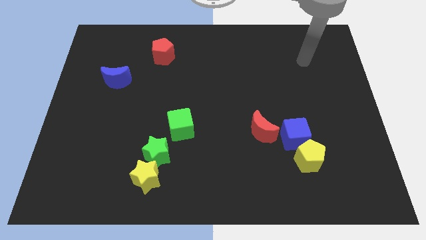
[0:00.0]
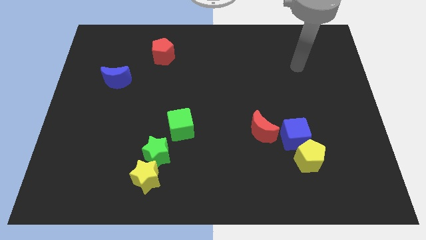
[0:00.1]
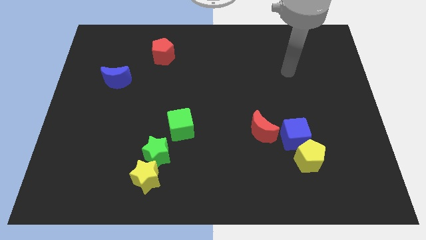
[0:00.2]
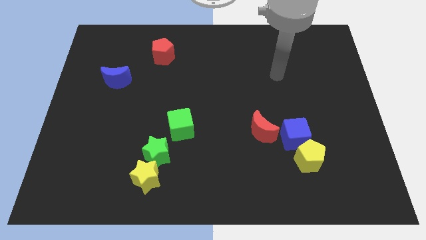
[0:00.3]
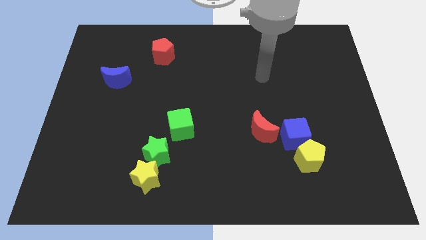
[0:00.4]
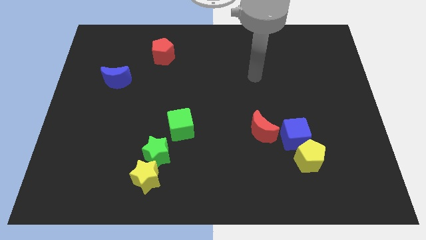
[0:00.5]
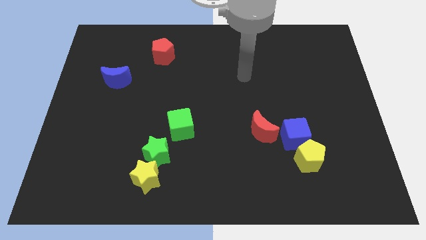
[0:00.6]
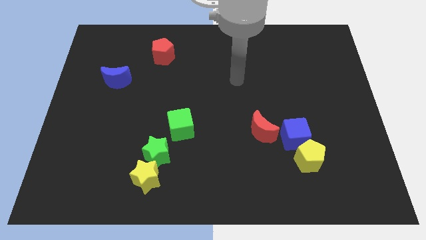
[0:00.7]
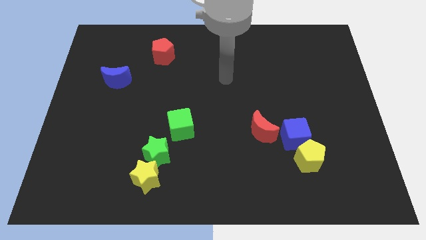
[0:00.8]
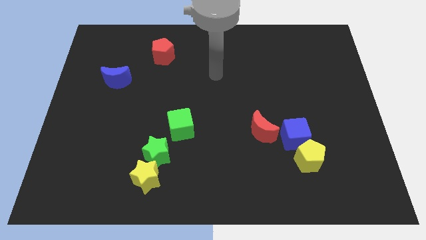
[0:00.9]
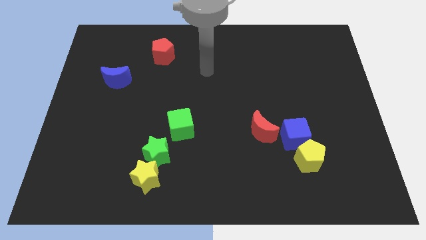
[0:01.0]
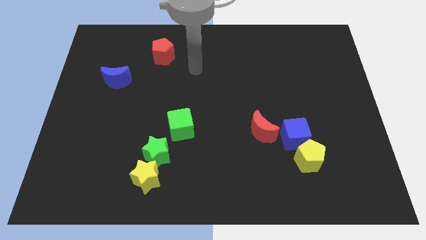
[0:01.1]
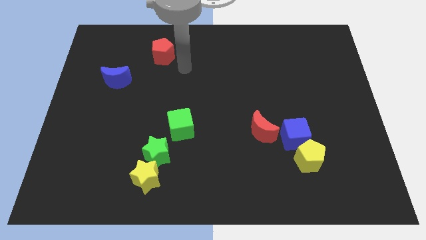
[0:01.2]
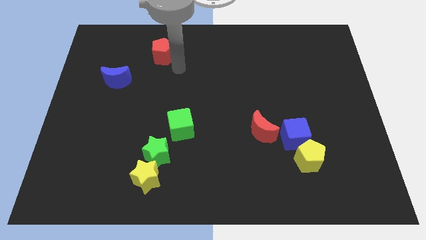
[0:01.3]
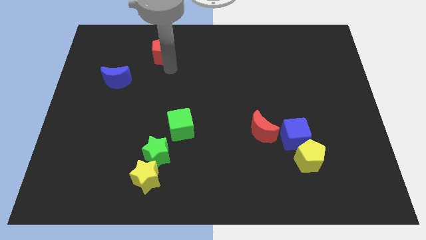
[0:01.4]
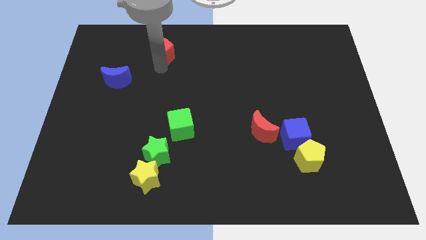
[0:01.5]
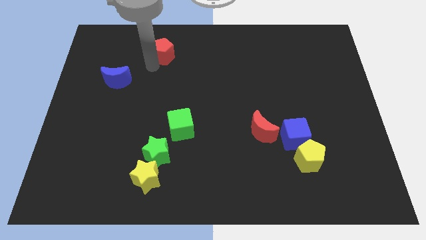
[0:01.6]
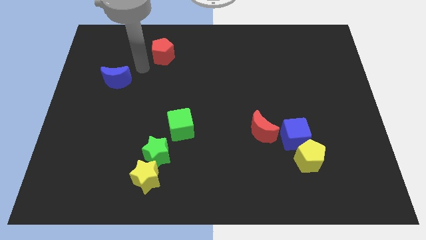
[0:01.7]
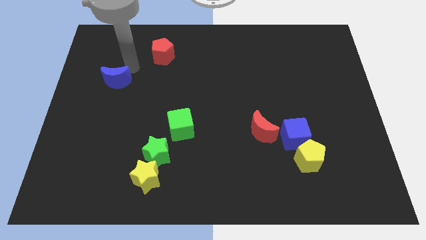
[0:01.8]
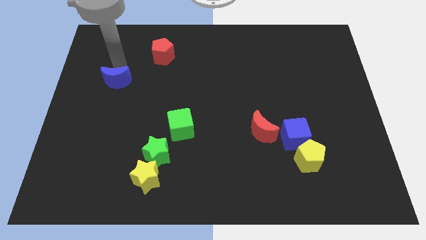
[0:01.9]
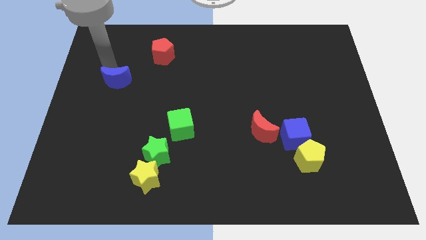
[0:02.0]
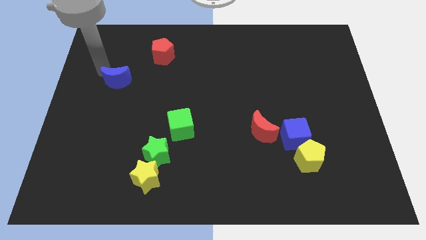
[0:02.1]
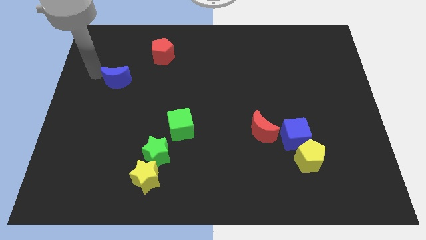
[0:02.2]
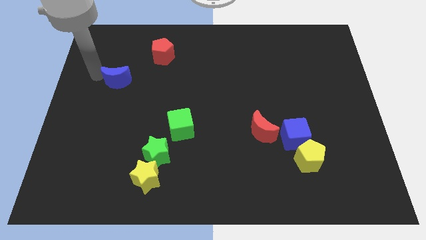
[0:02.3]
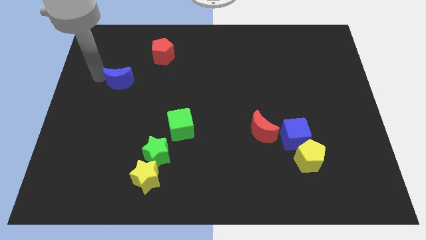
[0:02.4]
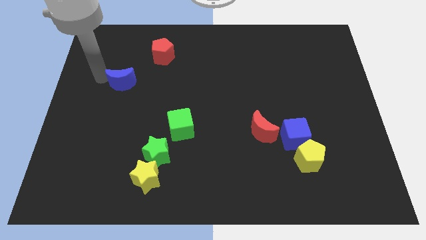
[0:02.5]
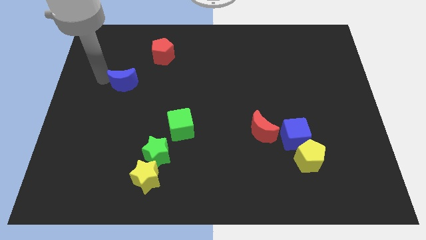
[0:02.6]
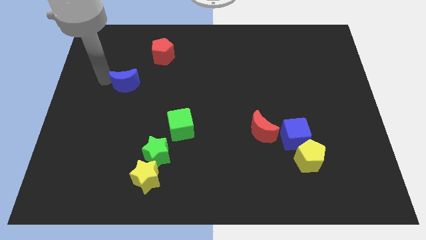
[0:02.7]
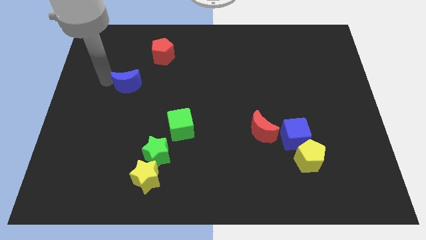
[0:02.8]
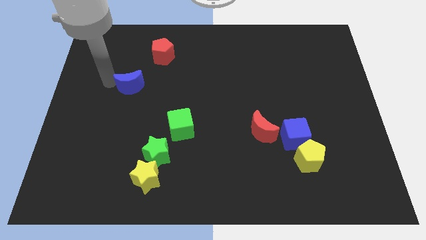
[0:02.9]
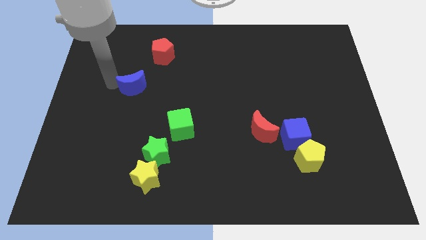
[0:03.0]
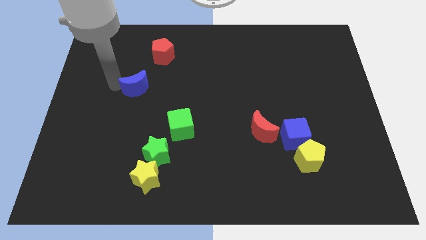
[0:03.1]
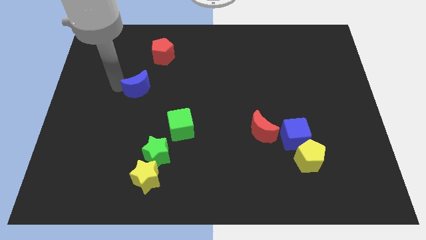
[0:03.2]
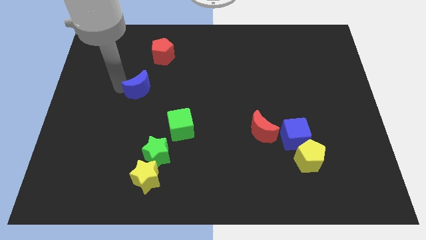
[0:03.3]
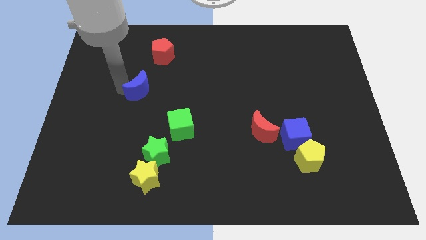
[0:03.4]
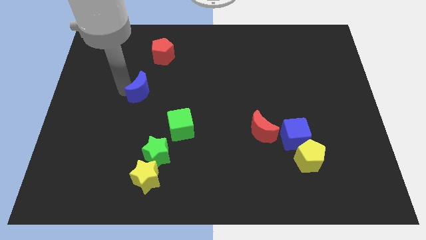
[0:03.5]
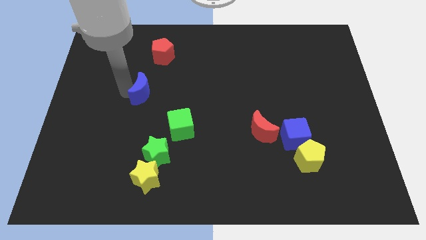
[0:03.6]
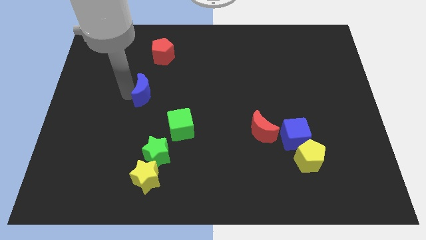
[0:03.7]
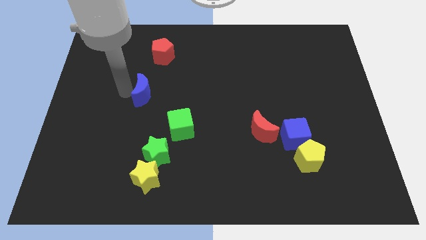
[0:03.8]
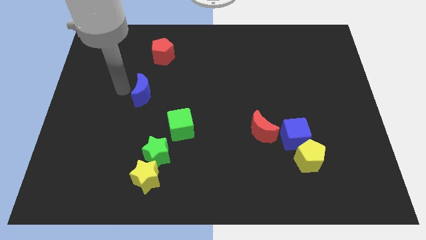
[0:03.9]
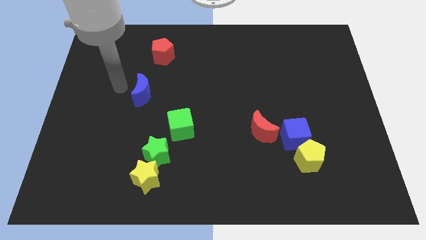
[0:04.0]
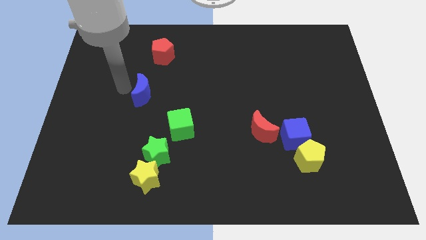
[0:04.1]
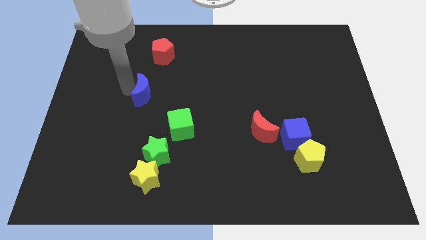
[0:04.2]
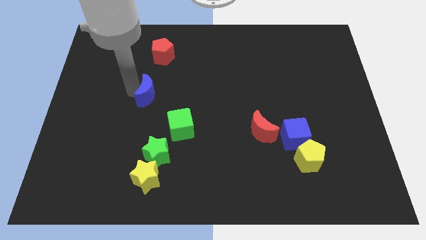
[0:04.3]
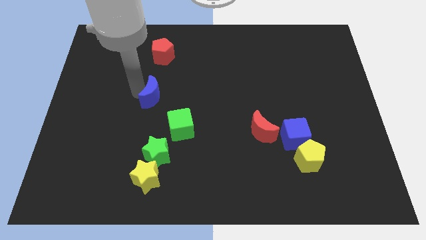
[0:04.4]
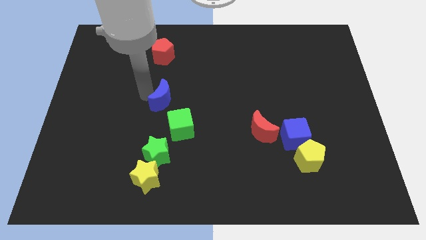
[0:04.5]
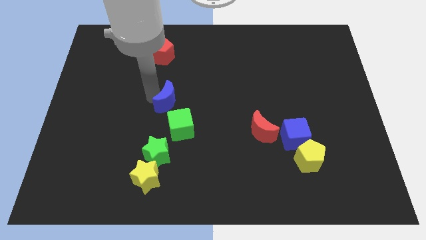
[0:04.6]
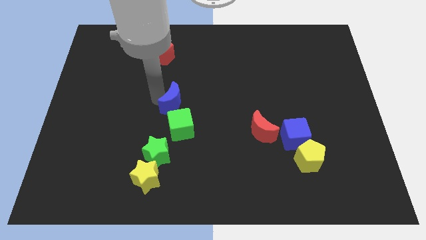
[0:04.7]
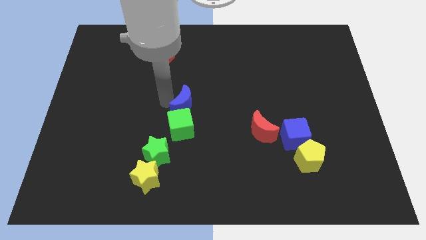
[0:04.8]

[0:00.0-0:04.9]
put the blue moon to the top right of the green cube

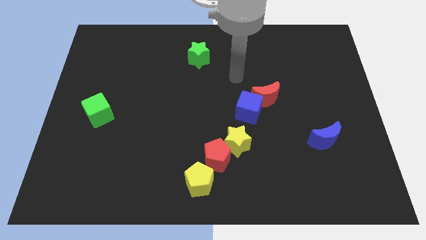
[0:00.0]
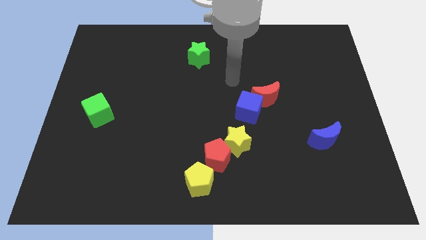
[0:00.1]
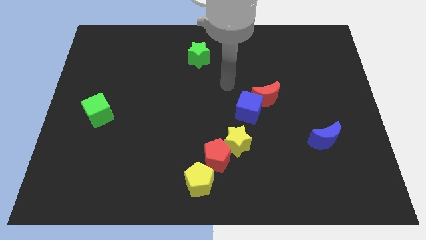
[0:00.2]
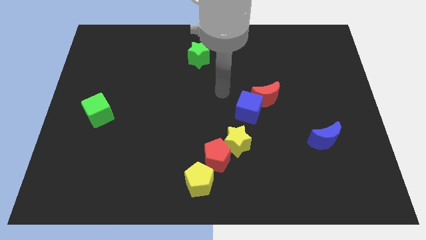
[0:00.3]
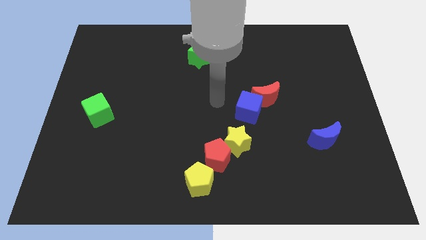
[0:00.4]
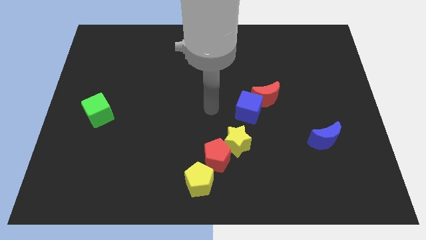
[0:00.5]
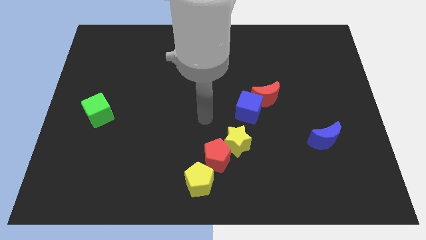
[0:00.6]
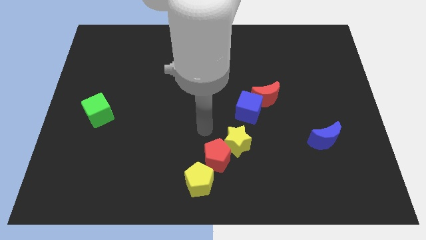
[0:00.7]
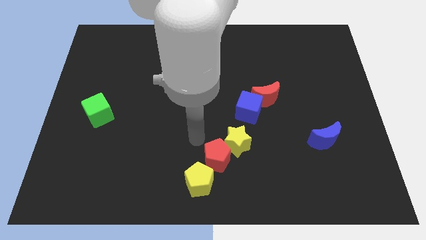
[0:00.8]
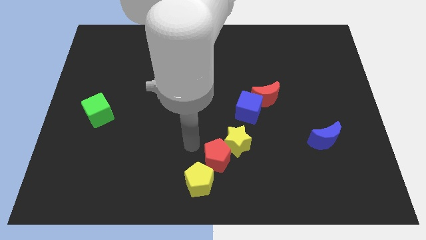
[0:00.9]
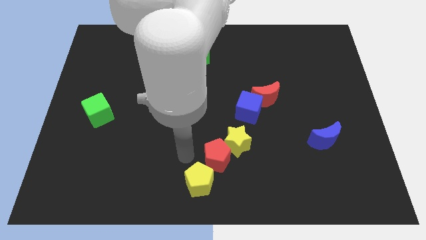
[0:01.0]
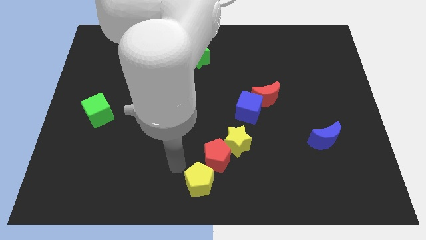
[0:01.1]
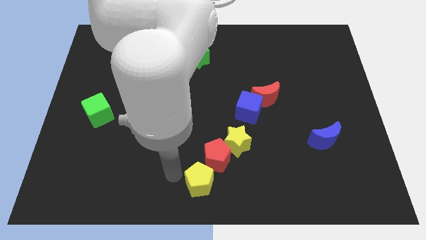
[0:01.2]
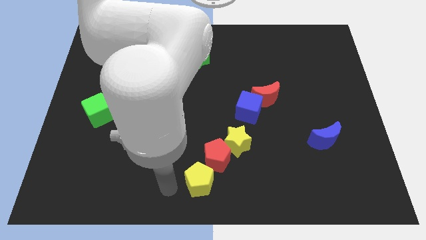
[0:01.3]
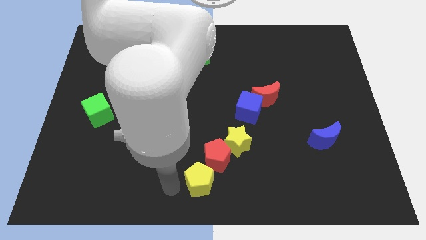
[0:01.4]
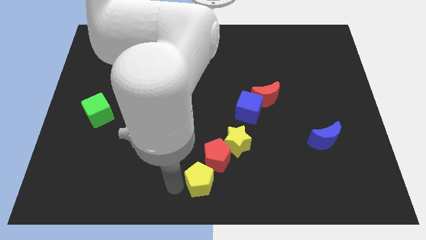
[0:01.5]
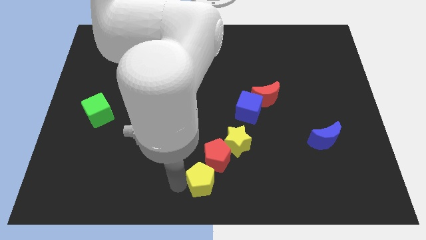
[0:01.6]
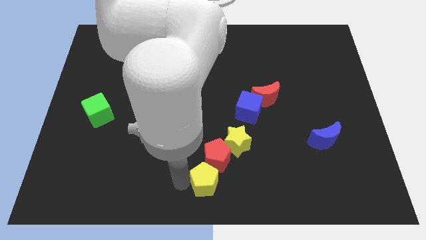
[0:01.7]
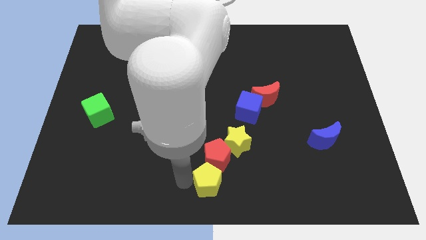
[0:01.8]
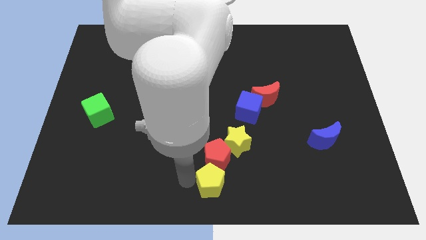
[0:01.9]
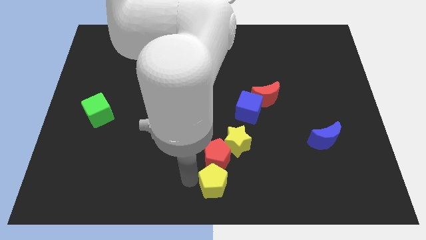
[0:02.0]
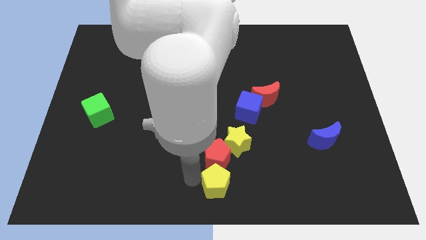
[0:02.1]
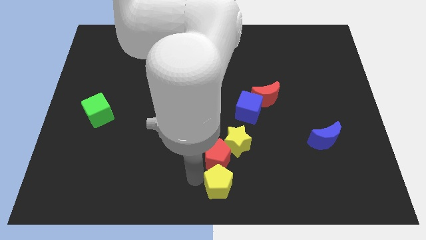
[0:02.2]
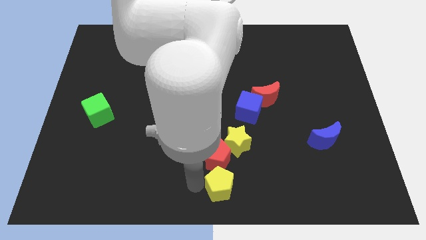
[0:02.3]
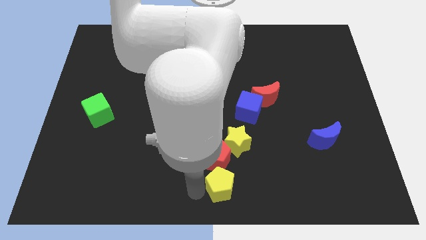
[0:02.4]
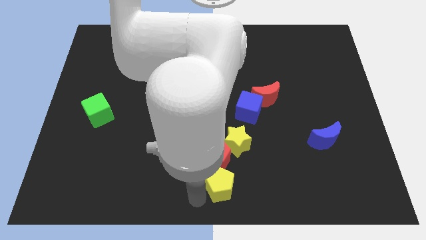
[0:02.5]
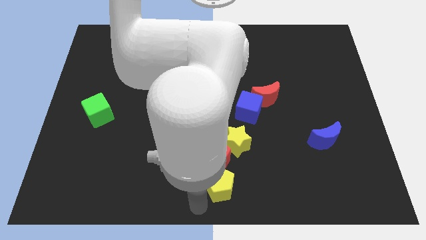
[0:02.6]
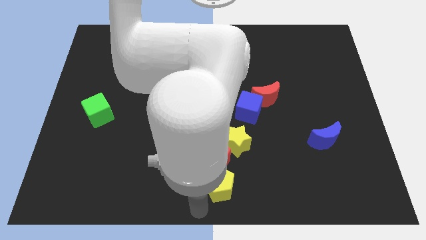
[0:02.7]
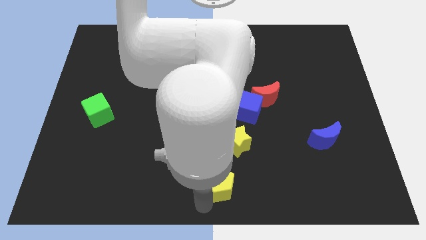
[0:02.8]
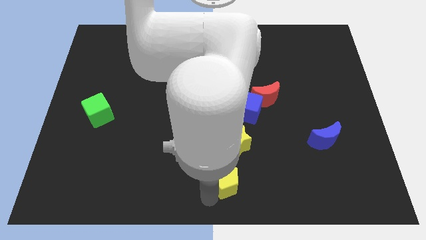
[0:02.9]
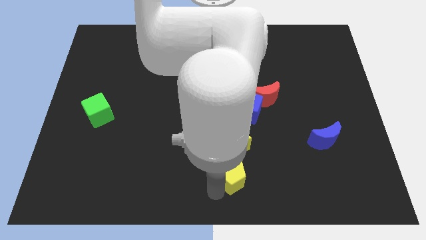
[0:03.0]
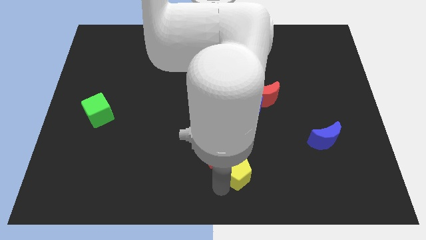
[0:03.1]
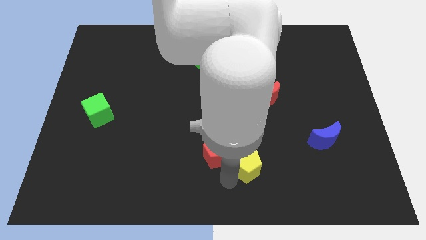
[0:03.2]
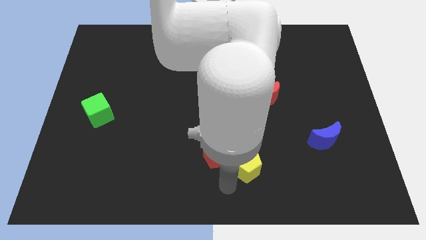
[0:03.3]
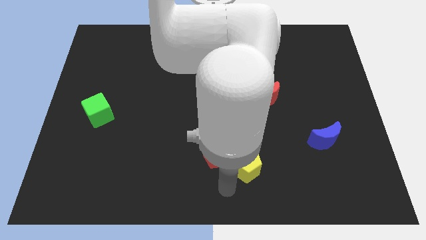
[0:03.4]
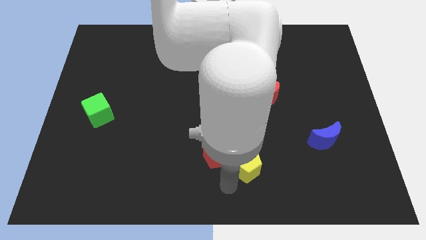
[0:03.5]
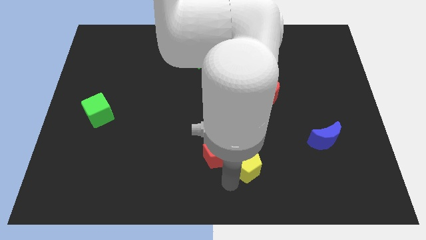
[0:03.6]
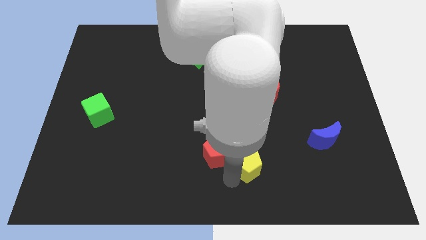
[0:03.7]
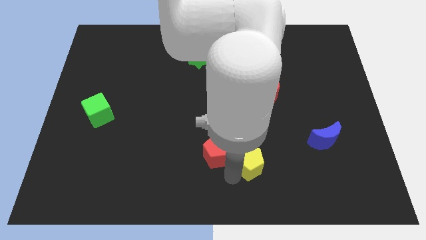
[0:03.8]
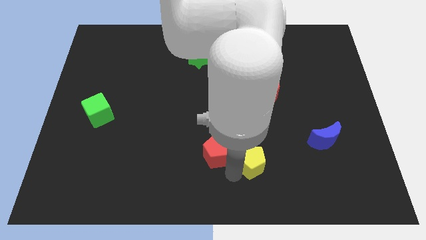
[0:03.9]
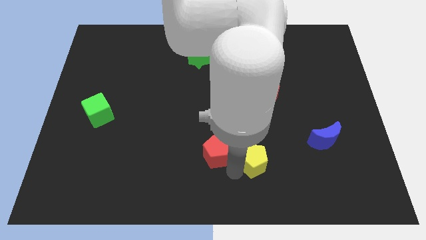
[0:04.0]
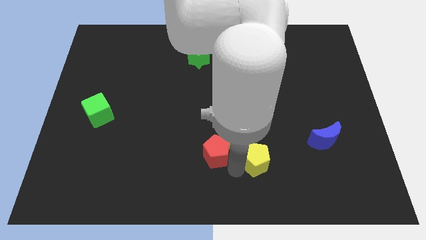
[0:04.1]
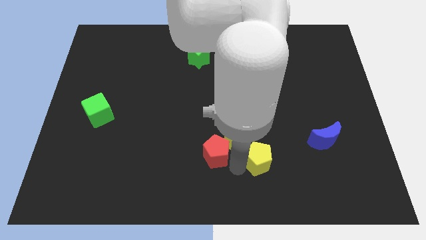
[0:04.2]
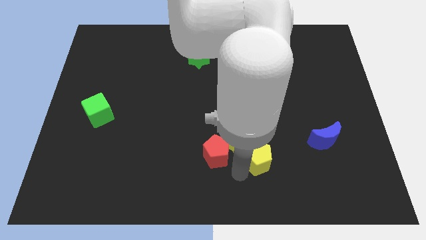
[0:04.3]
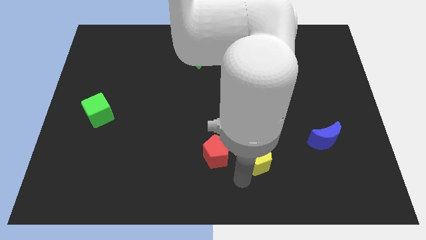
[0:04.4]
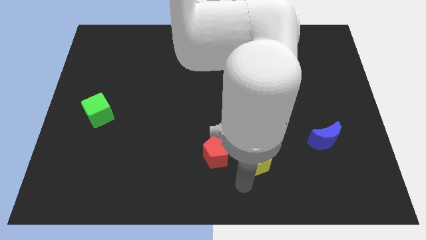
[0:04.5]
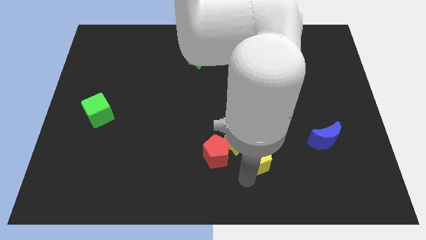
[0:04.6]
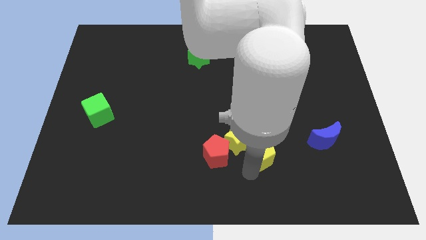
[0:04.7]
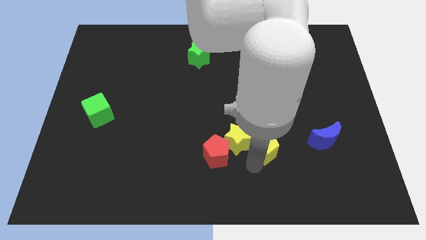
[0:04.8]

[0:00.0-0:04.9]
slide the yellow pentagon to the bottom of the red moon
